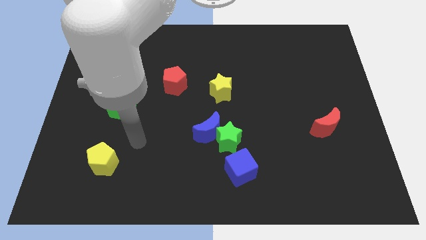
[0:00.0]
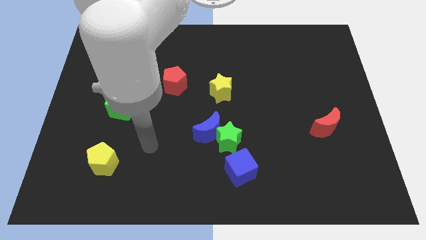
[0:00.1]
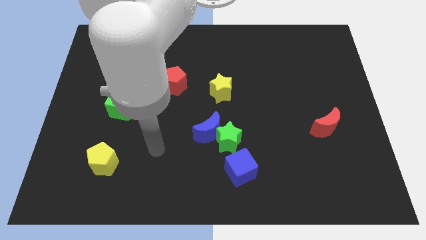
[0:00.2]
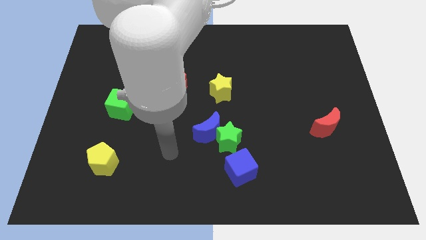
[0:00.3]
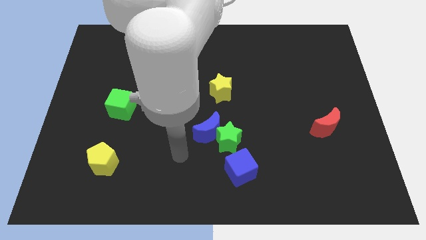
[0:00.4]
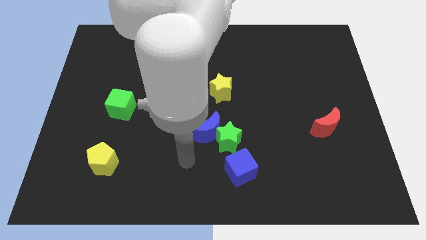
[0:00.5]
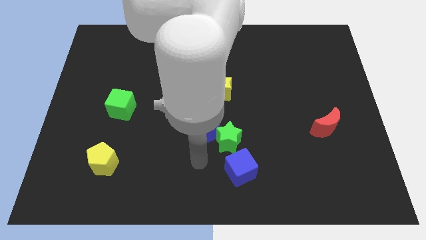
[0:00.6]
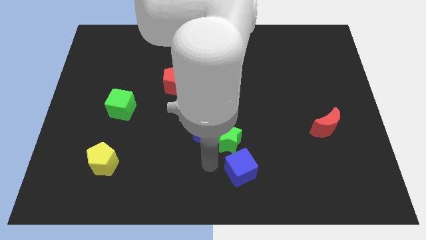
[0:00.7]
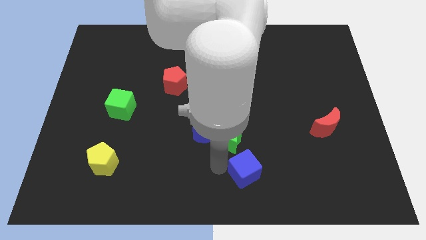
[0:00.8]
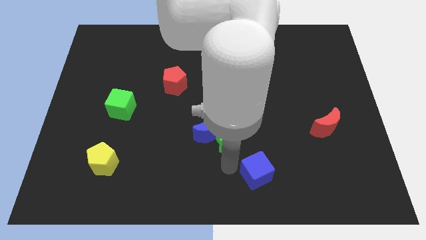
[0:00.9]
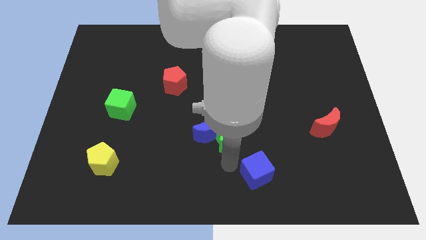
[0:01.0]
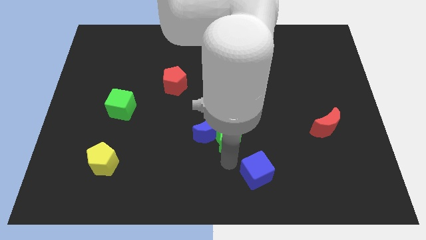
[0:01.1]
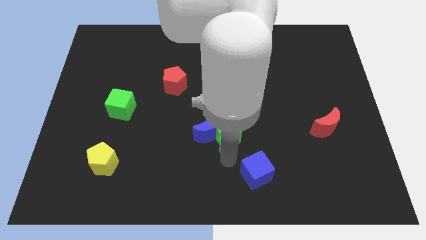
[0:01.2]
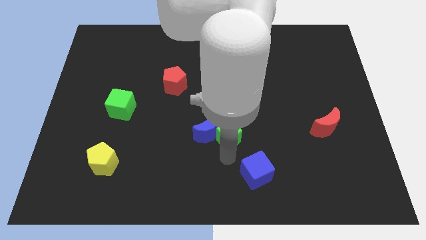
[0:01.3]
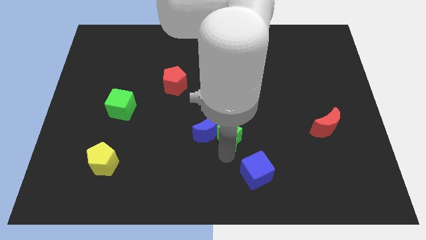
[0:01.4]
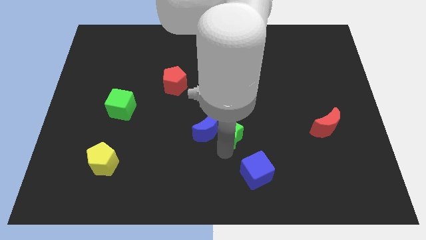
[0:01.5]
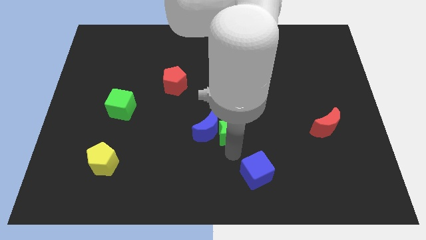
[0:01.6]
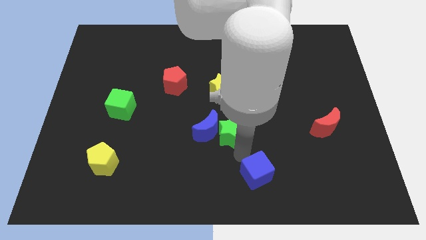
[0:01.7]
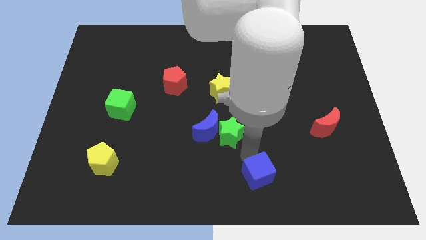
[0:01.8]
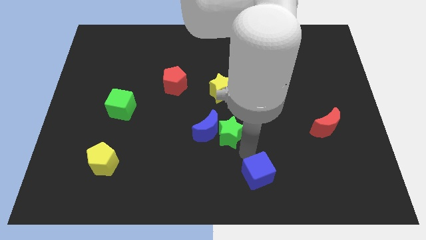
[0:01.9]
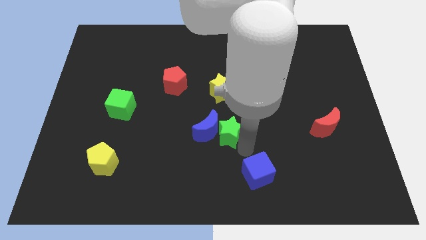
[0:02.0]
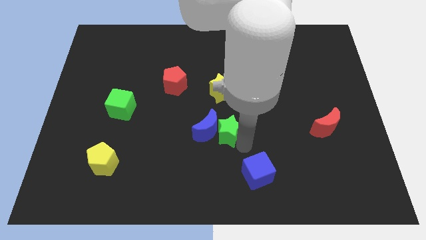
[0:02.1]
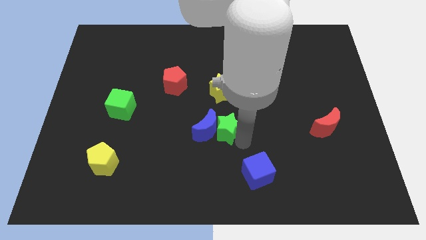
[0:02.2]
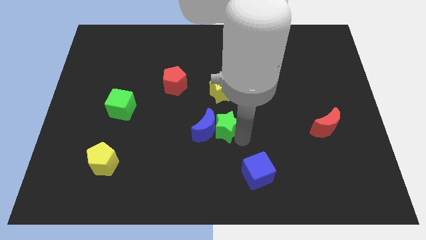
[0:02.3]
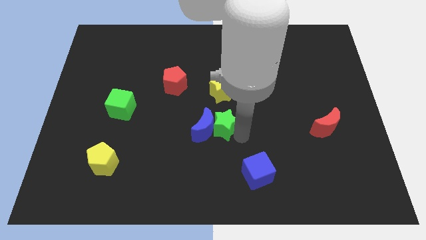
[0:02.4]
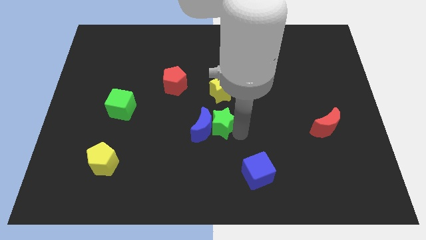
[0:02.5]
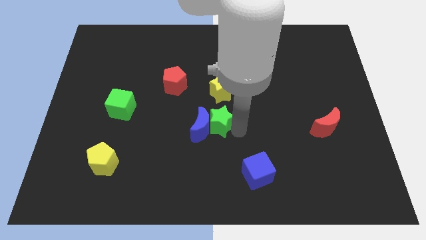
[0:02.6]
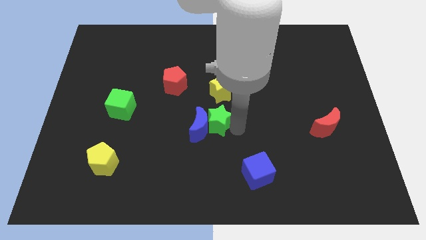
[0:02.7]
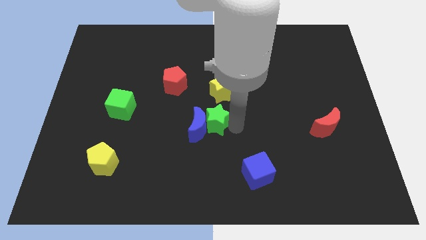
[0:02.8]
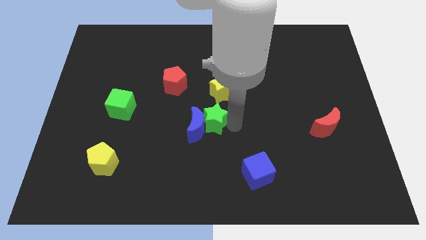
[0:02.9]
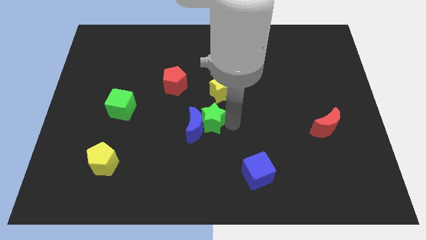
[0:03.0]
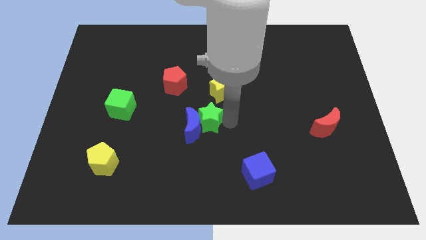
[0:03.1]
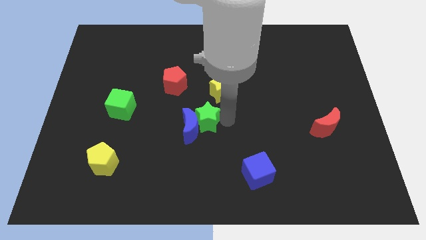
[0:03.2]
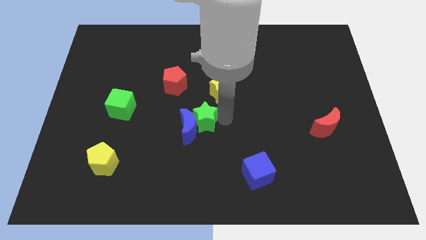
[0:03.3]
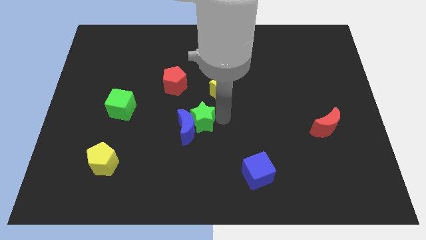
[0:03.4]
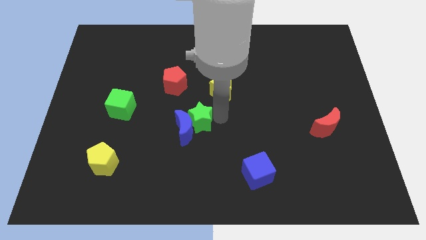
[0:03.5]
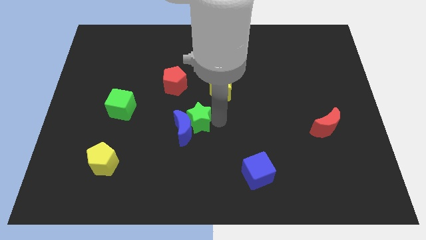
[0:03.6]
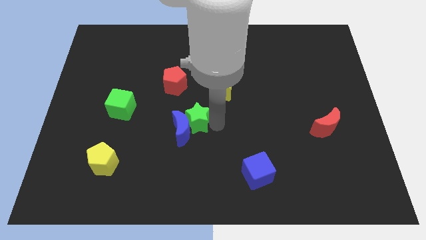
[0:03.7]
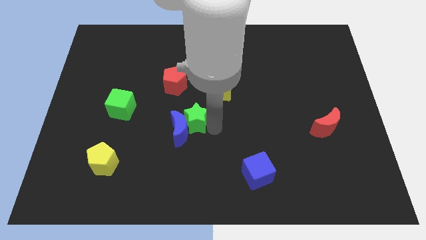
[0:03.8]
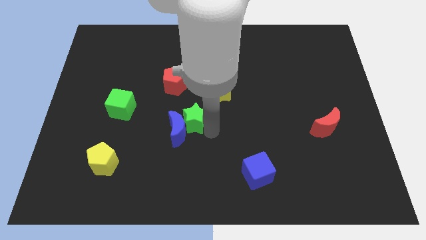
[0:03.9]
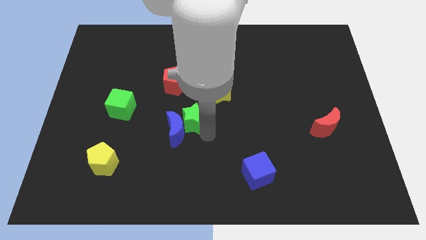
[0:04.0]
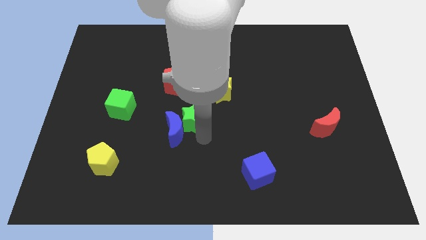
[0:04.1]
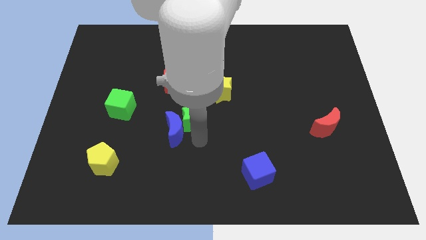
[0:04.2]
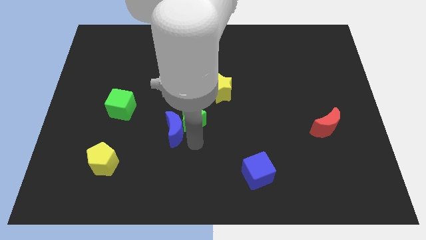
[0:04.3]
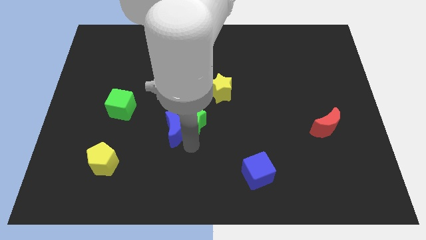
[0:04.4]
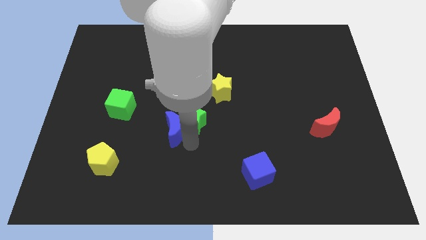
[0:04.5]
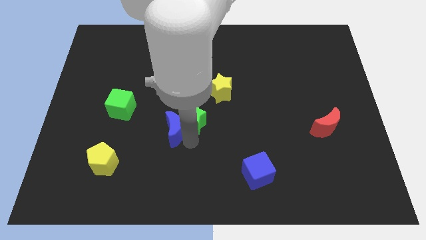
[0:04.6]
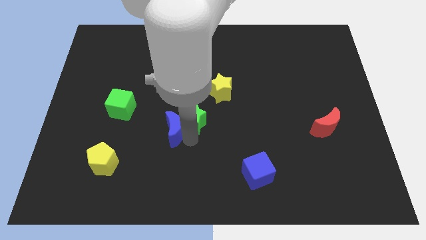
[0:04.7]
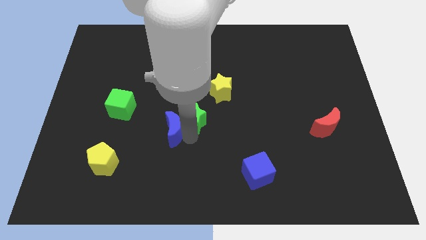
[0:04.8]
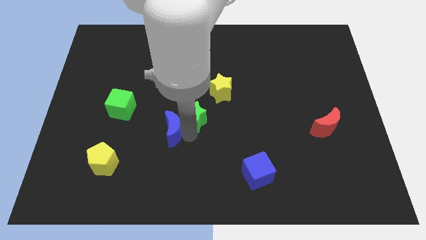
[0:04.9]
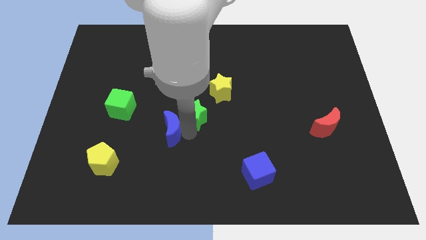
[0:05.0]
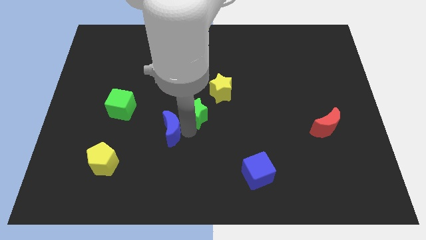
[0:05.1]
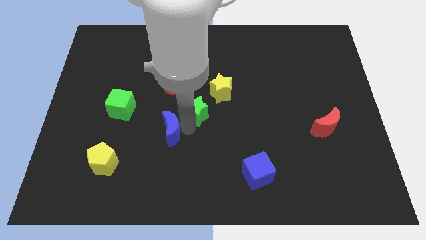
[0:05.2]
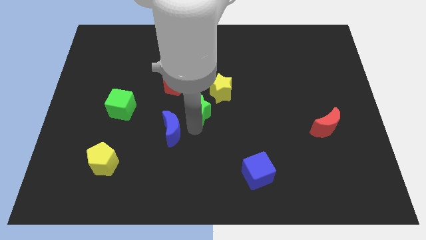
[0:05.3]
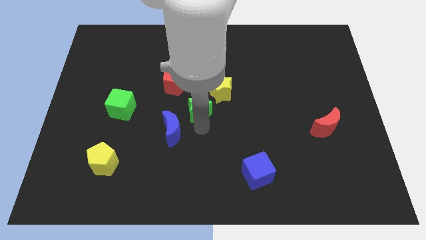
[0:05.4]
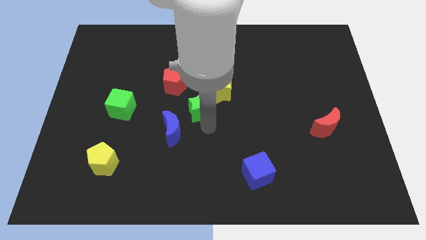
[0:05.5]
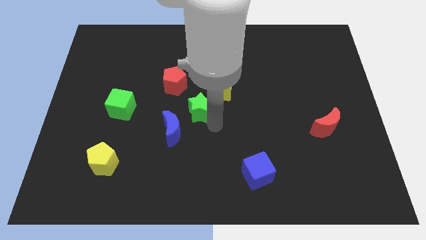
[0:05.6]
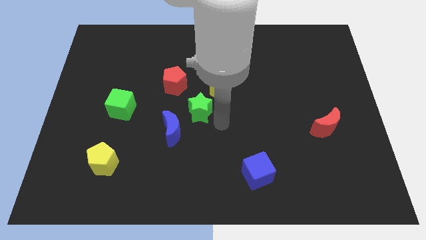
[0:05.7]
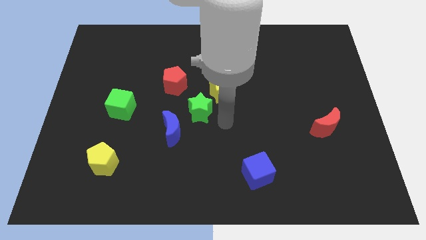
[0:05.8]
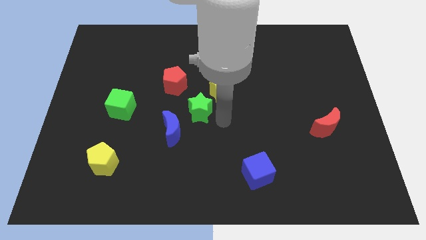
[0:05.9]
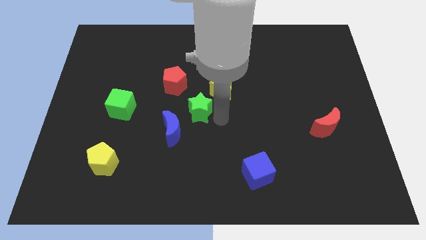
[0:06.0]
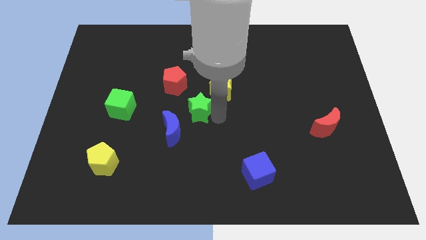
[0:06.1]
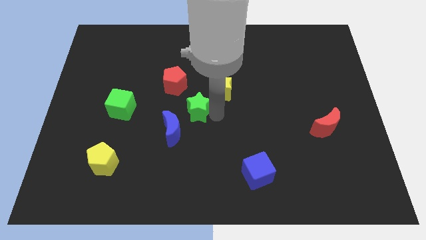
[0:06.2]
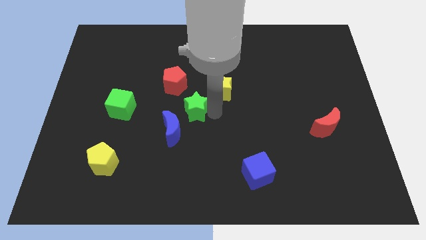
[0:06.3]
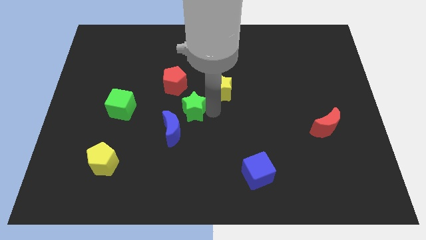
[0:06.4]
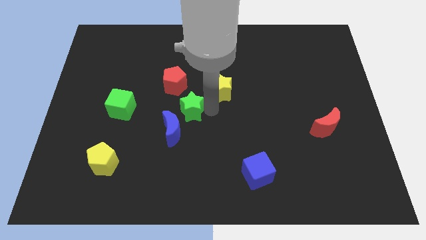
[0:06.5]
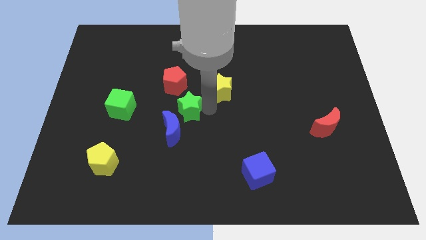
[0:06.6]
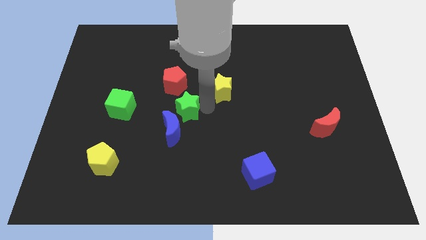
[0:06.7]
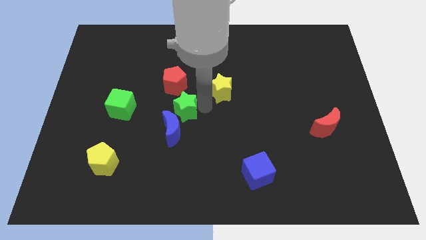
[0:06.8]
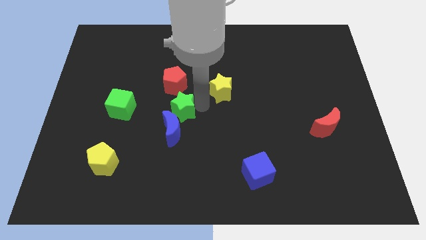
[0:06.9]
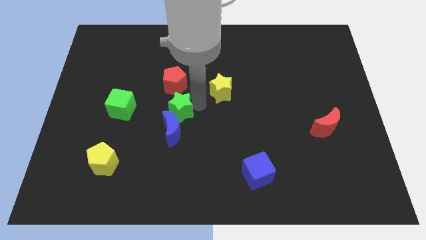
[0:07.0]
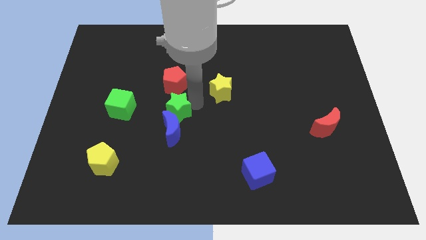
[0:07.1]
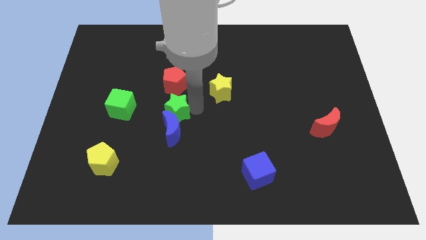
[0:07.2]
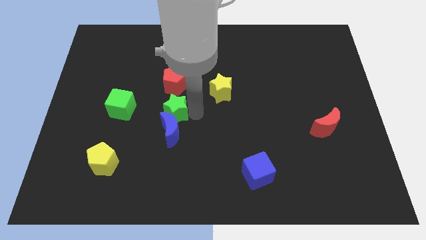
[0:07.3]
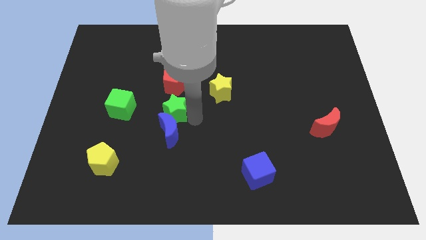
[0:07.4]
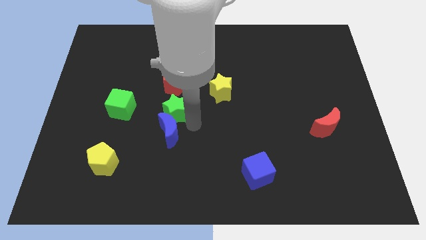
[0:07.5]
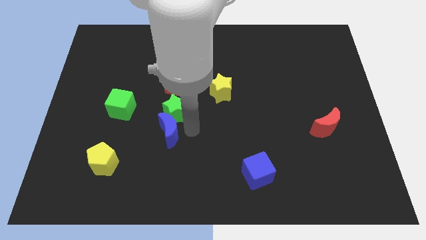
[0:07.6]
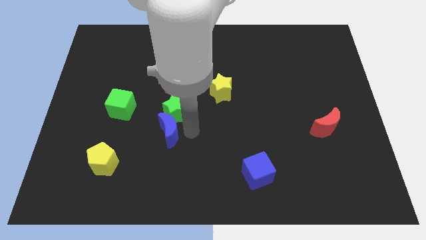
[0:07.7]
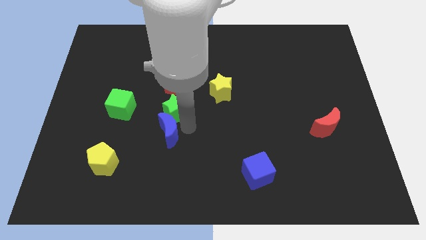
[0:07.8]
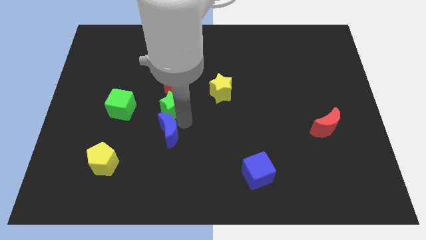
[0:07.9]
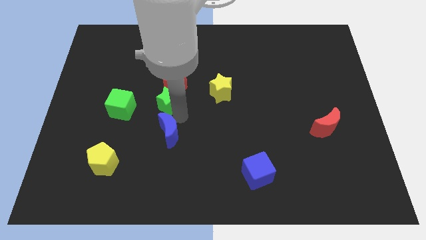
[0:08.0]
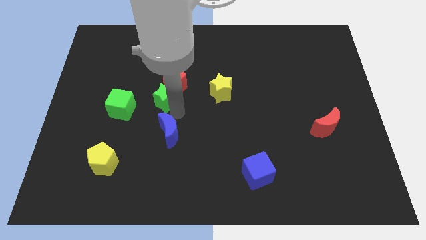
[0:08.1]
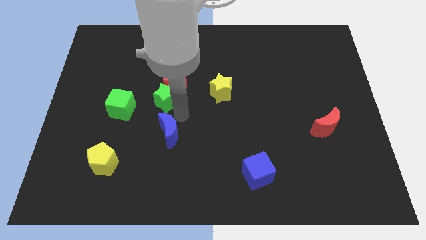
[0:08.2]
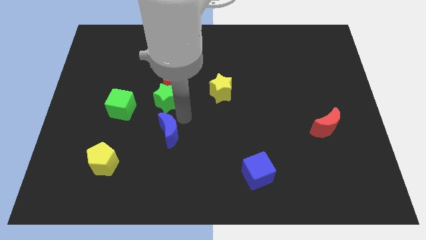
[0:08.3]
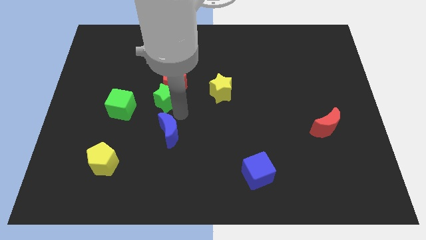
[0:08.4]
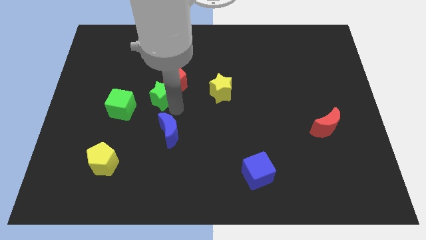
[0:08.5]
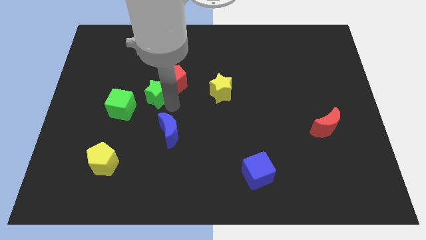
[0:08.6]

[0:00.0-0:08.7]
move the green star up and left
